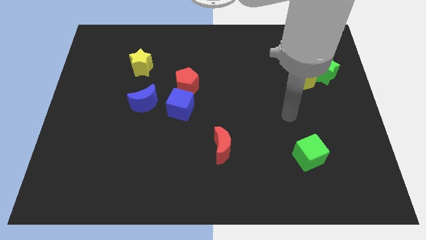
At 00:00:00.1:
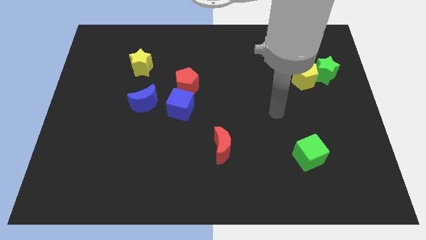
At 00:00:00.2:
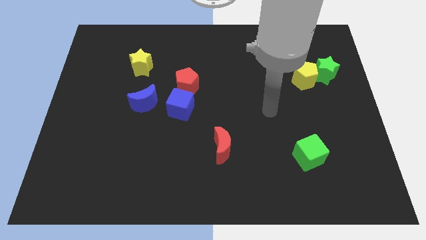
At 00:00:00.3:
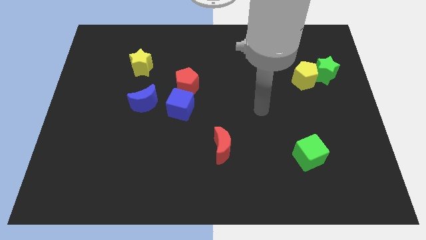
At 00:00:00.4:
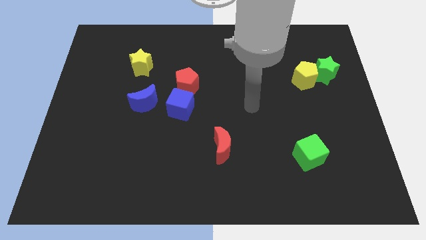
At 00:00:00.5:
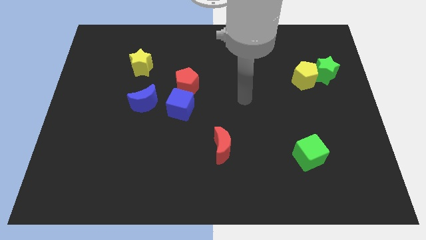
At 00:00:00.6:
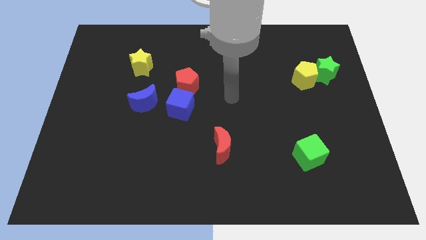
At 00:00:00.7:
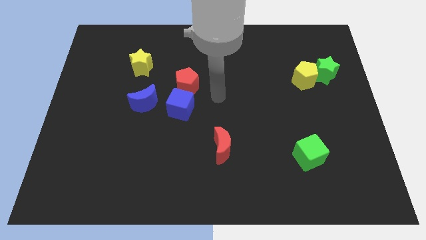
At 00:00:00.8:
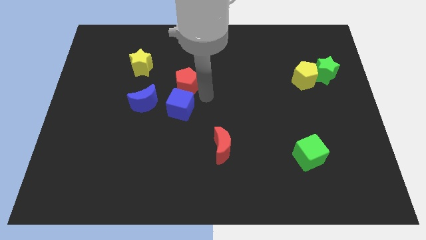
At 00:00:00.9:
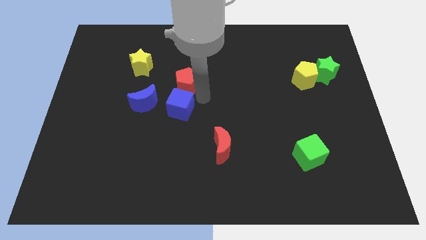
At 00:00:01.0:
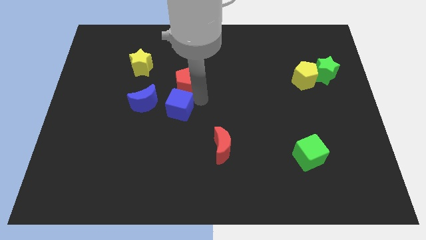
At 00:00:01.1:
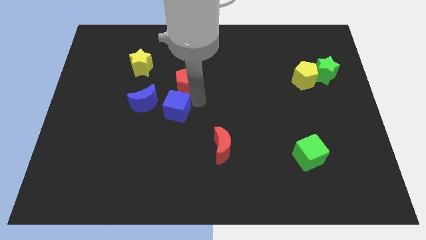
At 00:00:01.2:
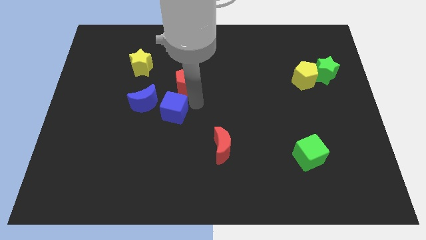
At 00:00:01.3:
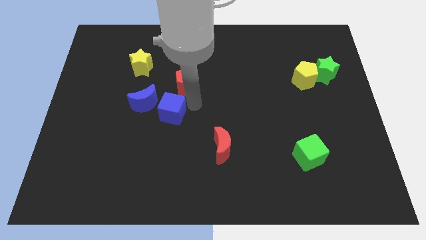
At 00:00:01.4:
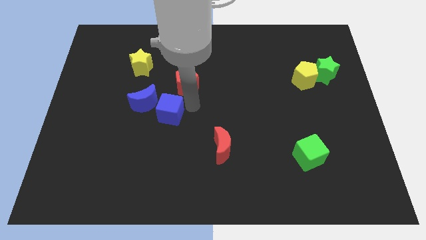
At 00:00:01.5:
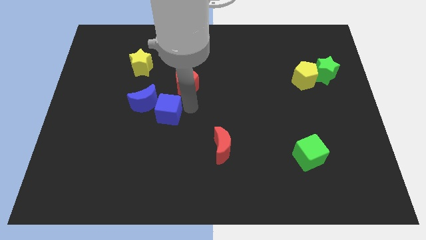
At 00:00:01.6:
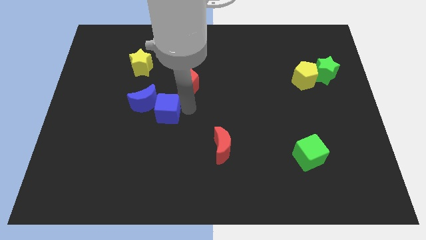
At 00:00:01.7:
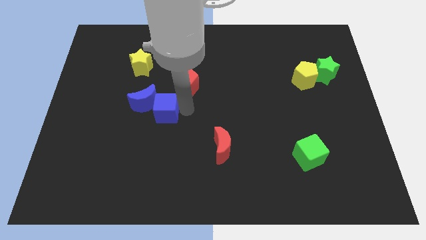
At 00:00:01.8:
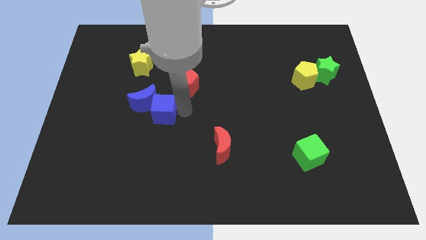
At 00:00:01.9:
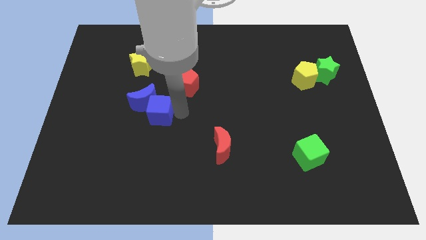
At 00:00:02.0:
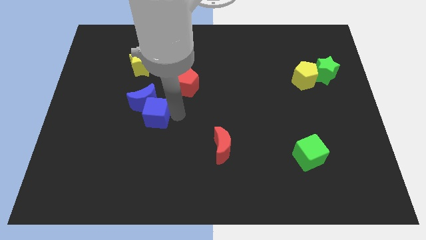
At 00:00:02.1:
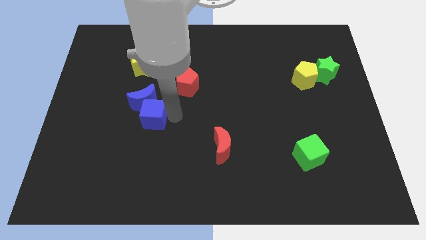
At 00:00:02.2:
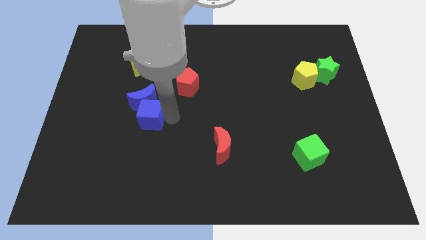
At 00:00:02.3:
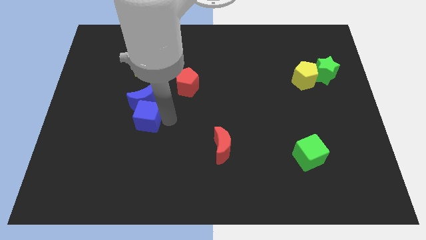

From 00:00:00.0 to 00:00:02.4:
push the blue cube slightly diagonally down and to the left

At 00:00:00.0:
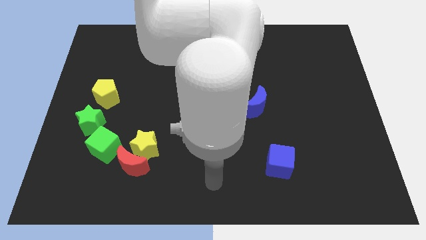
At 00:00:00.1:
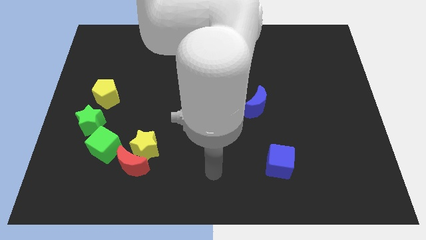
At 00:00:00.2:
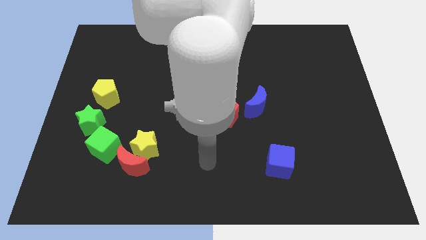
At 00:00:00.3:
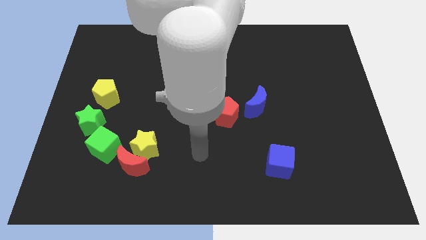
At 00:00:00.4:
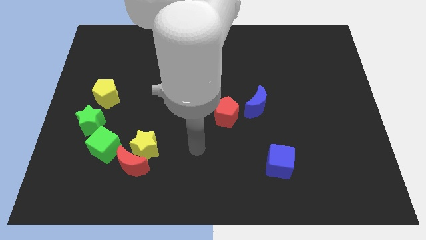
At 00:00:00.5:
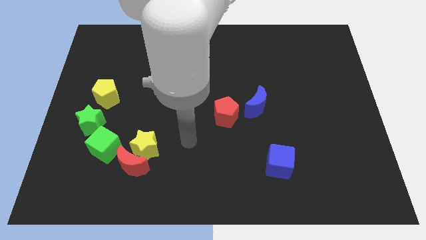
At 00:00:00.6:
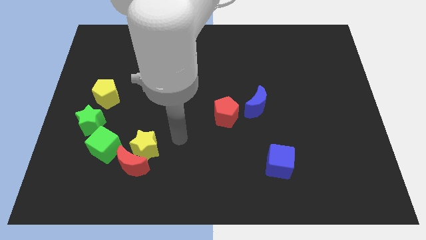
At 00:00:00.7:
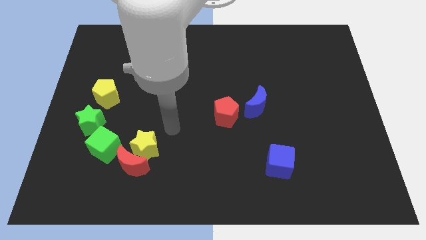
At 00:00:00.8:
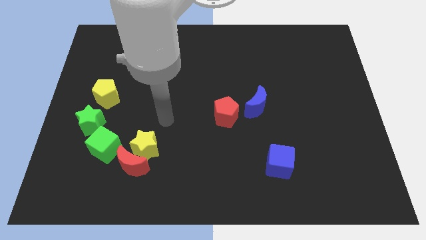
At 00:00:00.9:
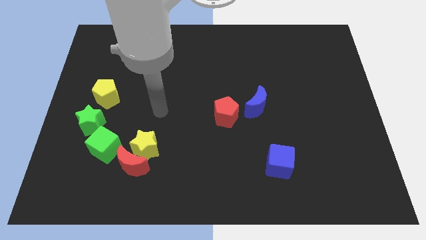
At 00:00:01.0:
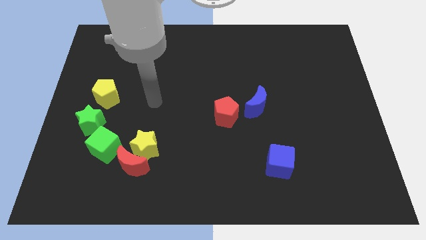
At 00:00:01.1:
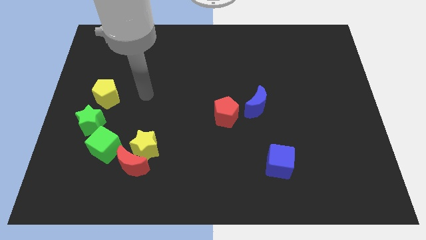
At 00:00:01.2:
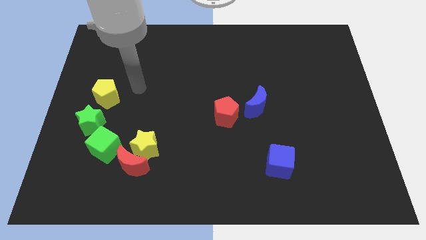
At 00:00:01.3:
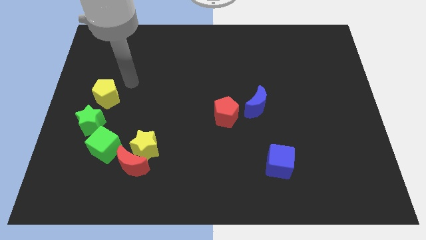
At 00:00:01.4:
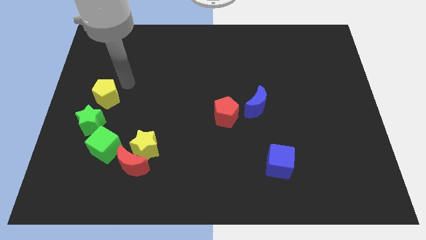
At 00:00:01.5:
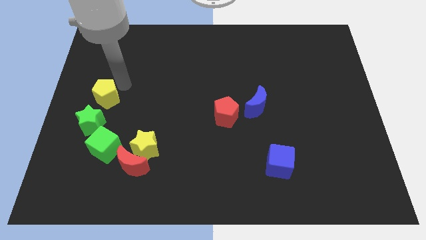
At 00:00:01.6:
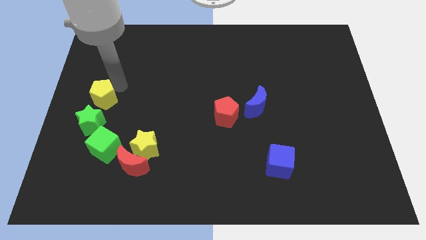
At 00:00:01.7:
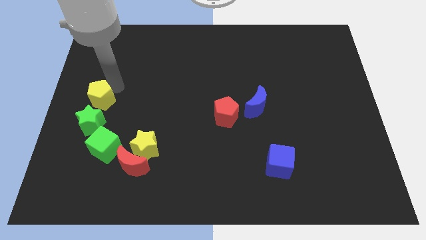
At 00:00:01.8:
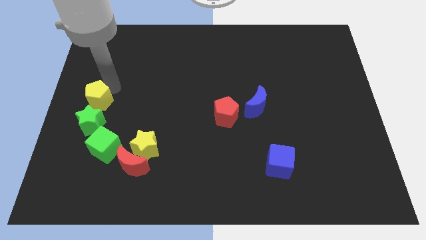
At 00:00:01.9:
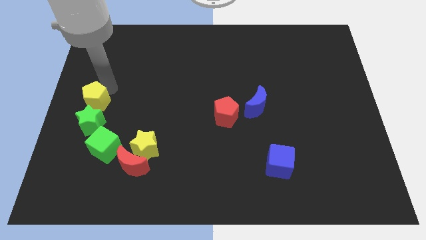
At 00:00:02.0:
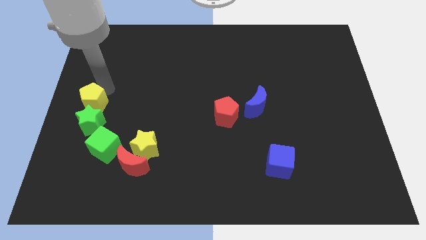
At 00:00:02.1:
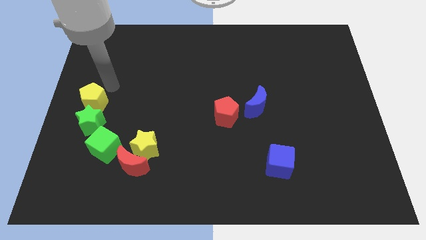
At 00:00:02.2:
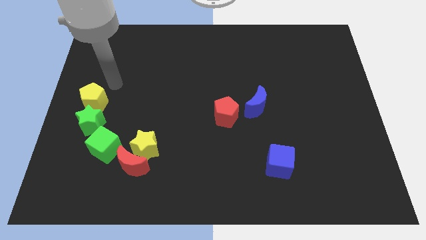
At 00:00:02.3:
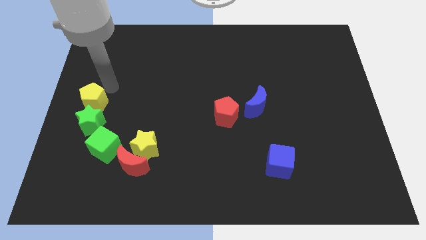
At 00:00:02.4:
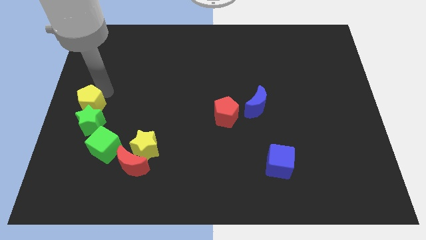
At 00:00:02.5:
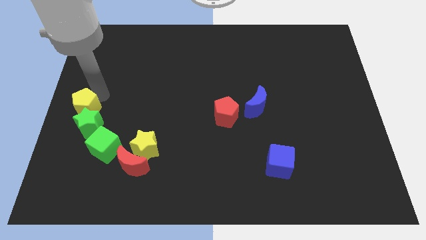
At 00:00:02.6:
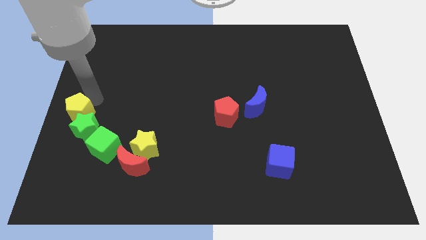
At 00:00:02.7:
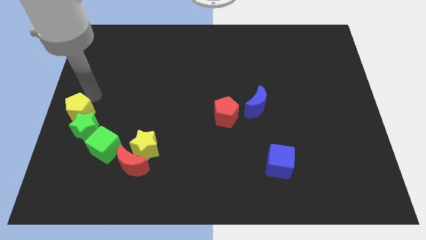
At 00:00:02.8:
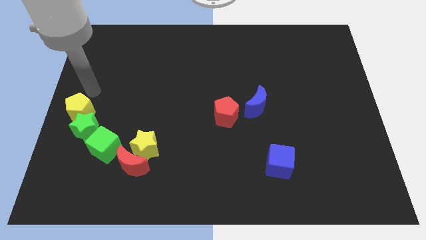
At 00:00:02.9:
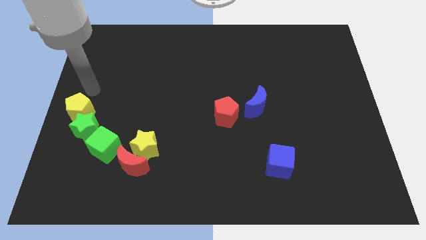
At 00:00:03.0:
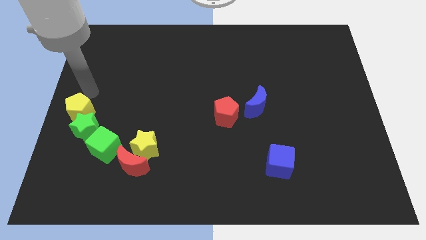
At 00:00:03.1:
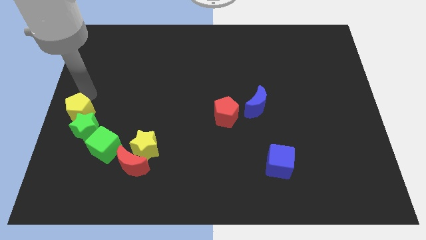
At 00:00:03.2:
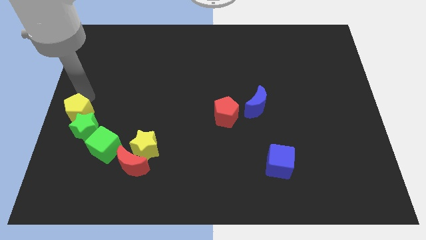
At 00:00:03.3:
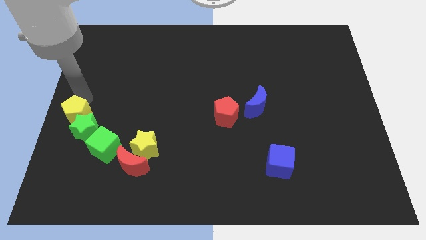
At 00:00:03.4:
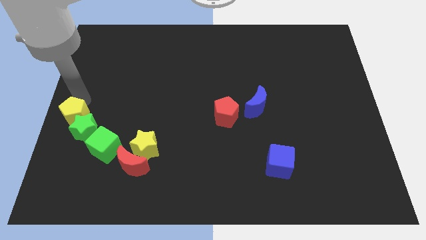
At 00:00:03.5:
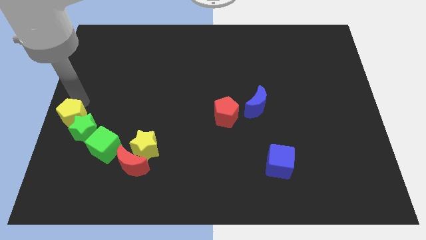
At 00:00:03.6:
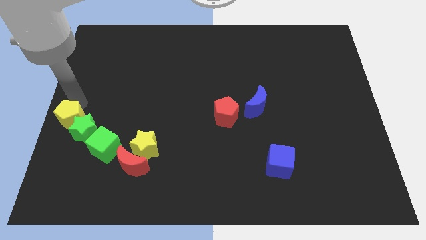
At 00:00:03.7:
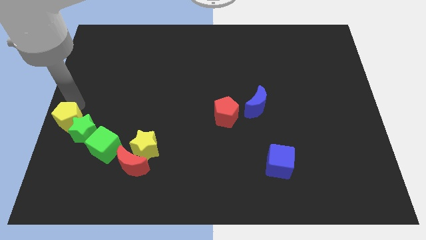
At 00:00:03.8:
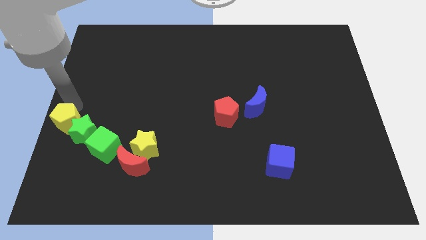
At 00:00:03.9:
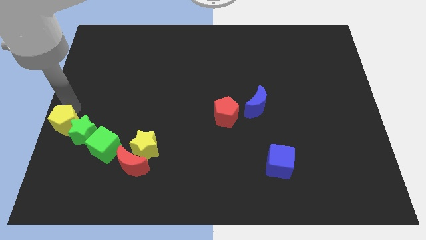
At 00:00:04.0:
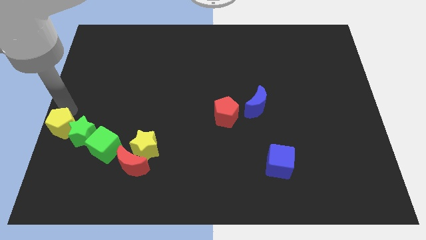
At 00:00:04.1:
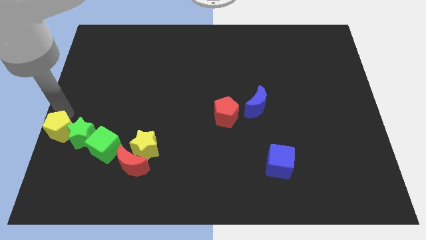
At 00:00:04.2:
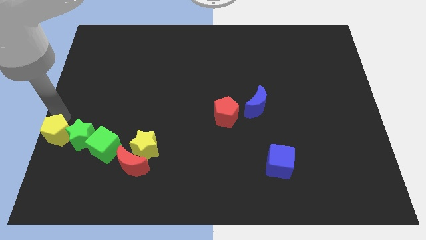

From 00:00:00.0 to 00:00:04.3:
move the yellow pentagon a little bit down

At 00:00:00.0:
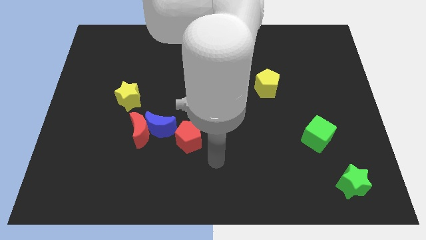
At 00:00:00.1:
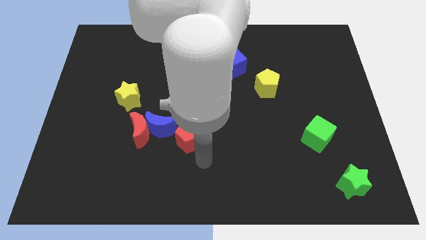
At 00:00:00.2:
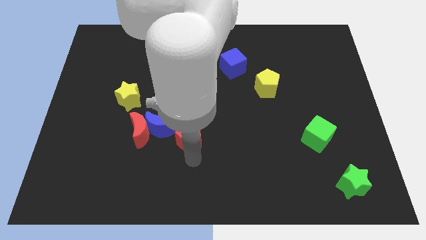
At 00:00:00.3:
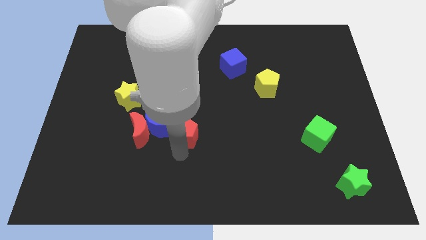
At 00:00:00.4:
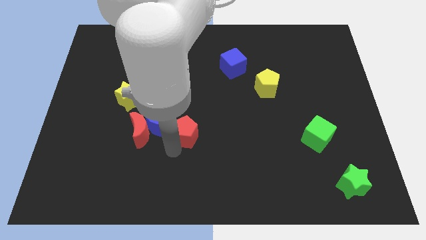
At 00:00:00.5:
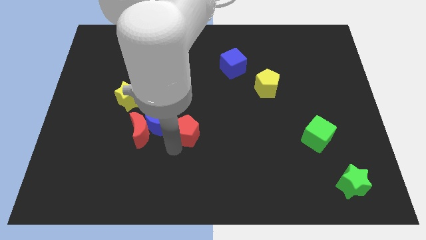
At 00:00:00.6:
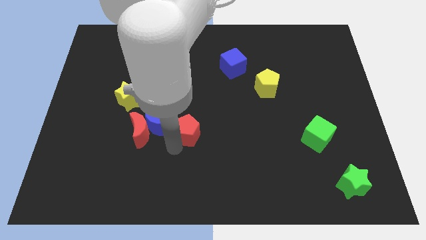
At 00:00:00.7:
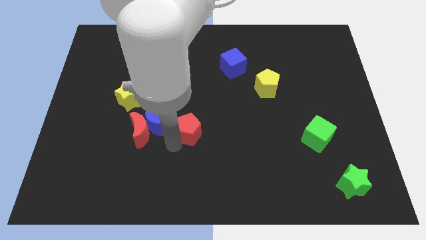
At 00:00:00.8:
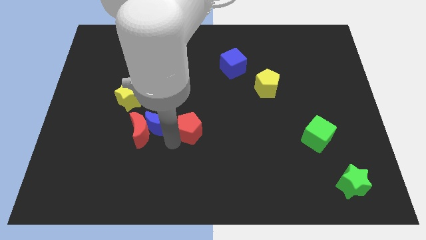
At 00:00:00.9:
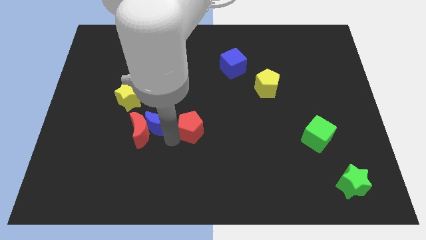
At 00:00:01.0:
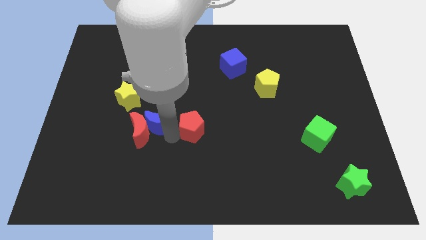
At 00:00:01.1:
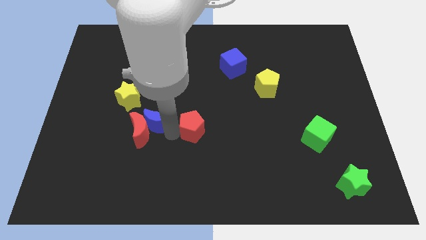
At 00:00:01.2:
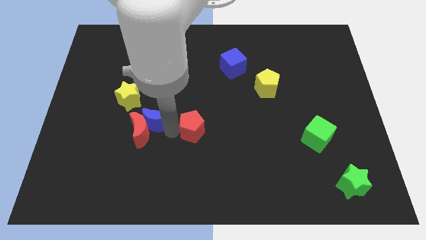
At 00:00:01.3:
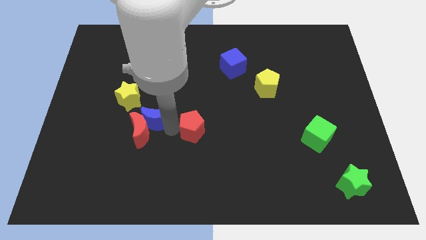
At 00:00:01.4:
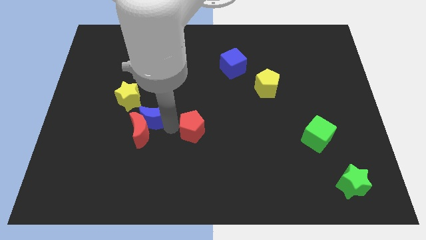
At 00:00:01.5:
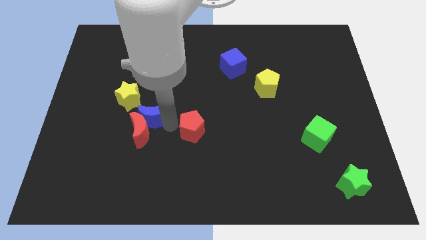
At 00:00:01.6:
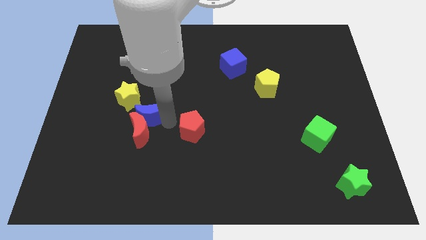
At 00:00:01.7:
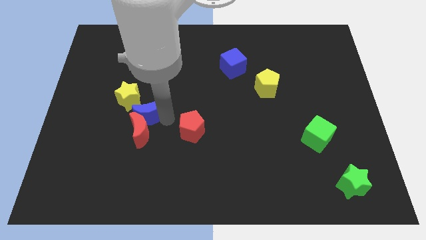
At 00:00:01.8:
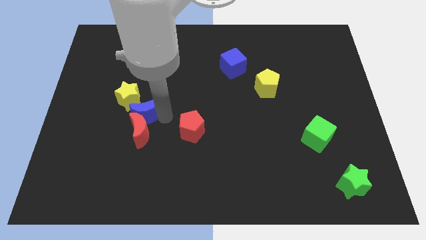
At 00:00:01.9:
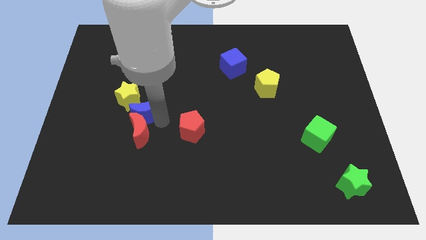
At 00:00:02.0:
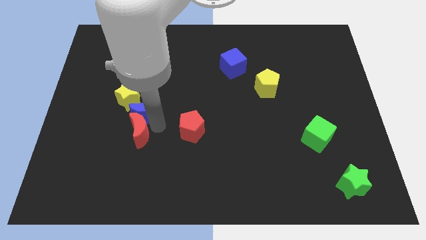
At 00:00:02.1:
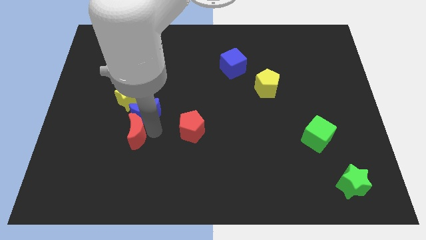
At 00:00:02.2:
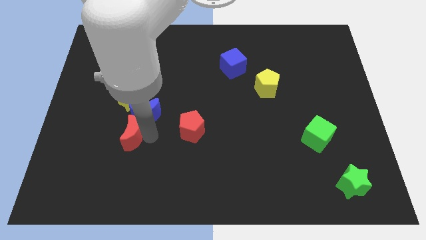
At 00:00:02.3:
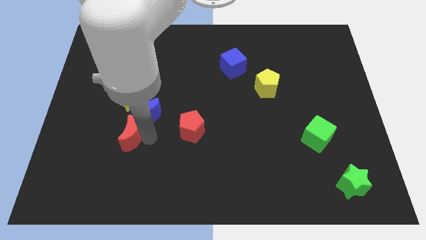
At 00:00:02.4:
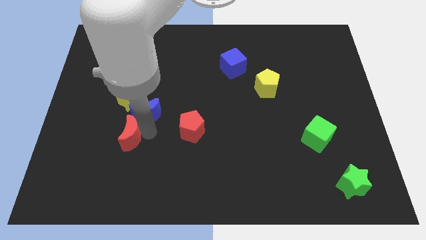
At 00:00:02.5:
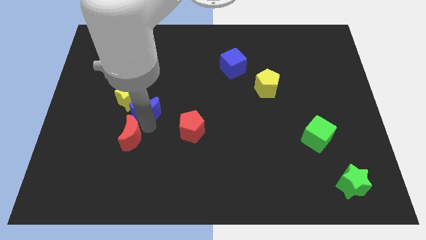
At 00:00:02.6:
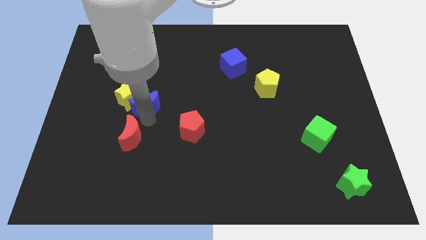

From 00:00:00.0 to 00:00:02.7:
slightly push the blue moon upwards and then left
